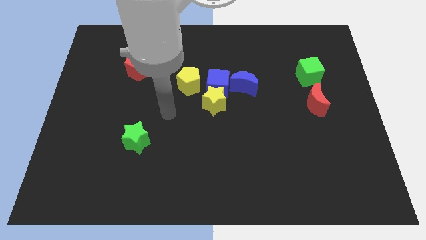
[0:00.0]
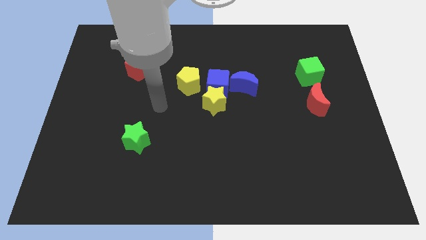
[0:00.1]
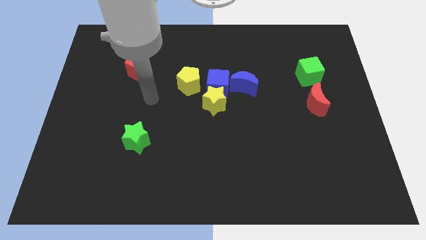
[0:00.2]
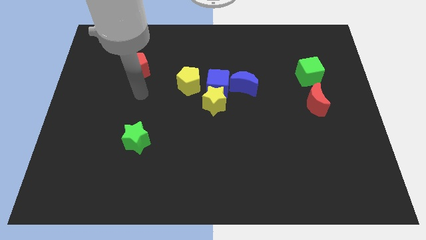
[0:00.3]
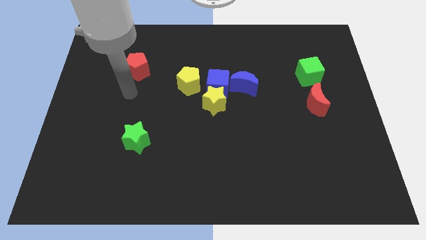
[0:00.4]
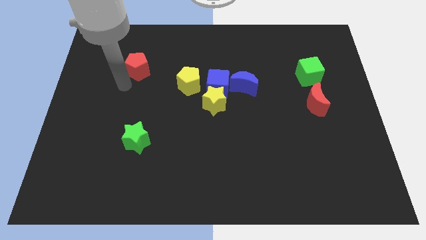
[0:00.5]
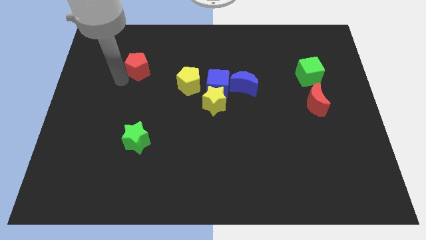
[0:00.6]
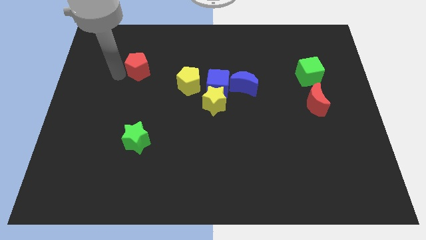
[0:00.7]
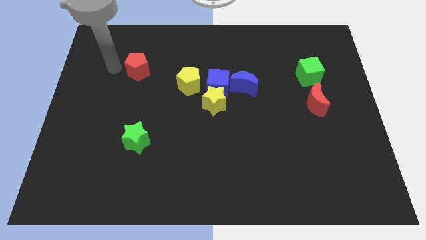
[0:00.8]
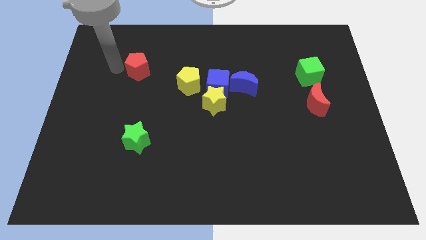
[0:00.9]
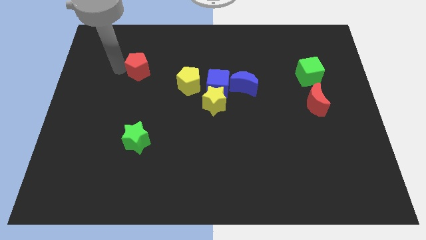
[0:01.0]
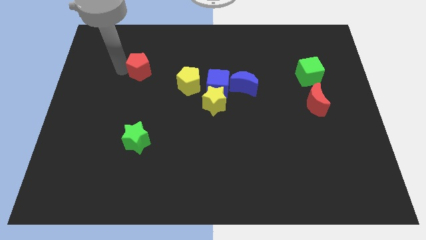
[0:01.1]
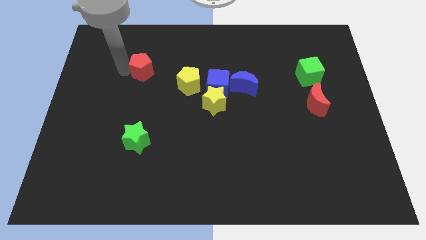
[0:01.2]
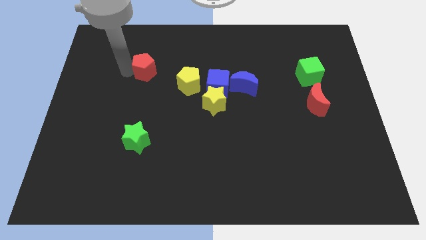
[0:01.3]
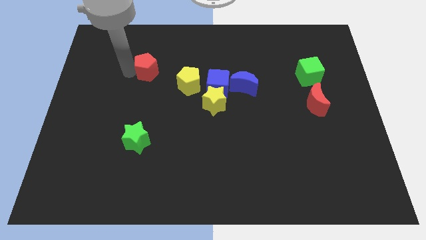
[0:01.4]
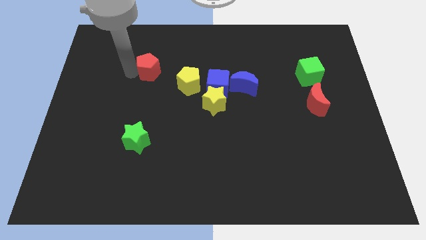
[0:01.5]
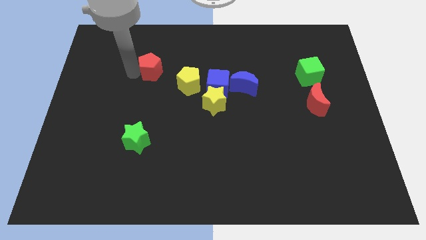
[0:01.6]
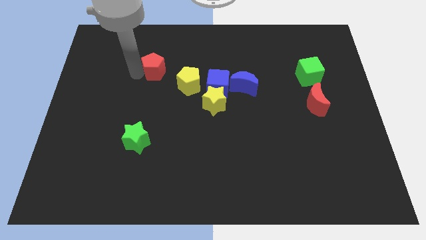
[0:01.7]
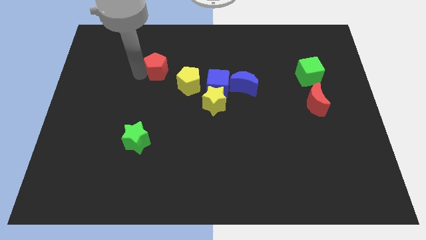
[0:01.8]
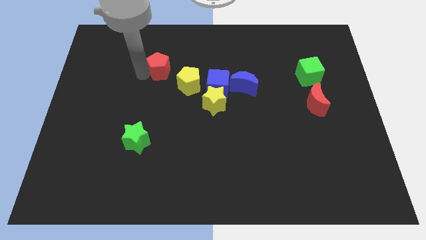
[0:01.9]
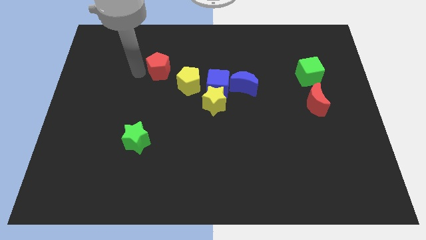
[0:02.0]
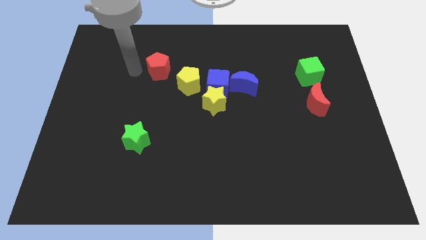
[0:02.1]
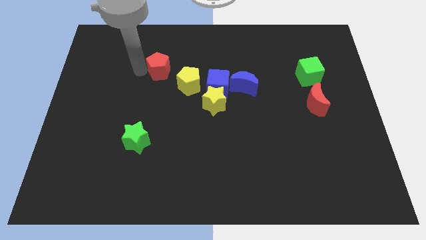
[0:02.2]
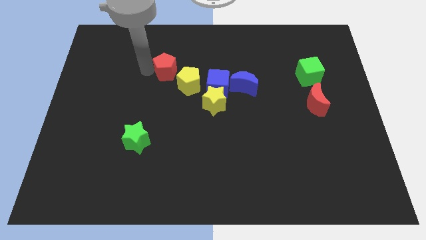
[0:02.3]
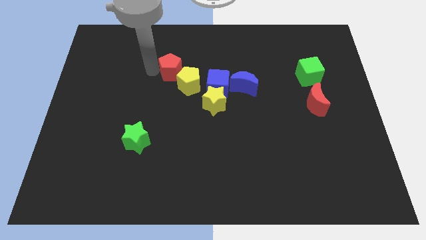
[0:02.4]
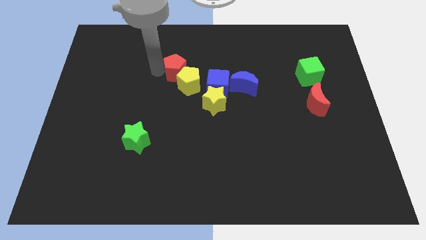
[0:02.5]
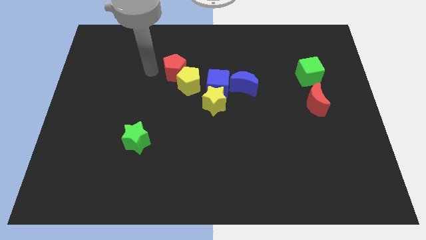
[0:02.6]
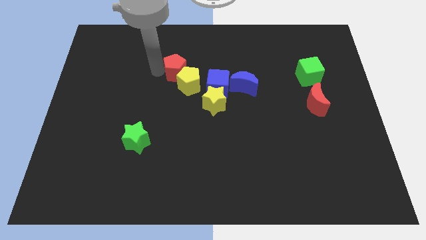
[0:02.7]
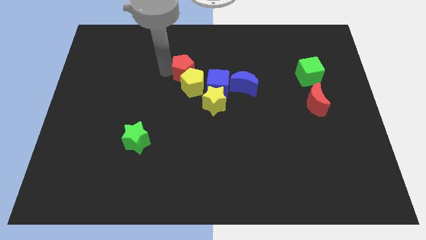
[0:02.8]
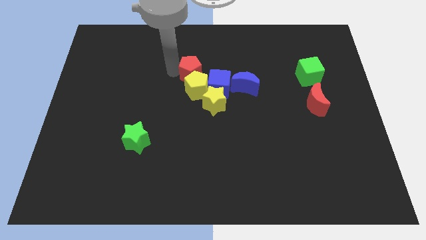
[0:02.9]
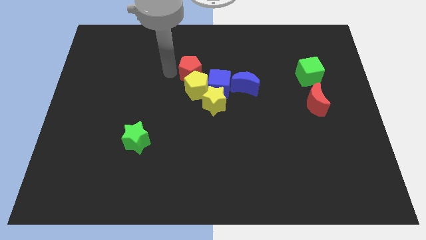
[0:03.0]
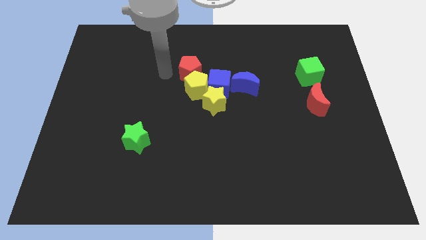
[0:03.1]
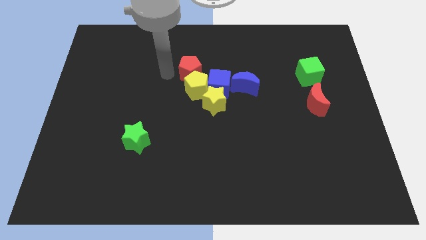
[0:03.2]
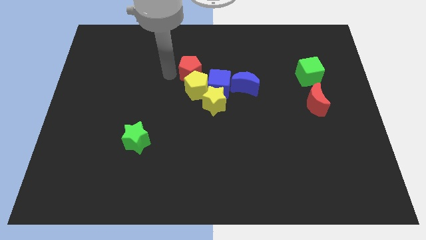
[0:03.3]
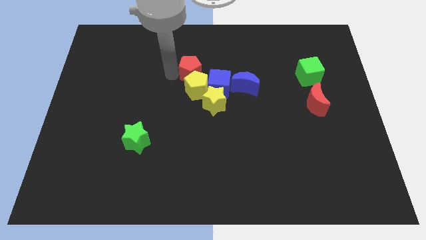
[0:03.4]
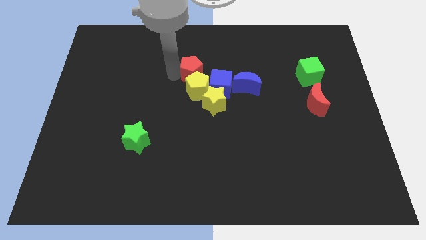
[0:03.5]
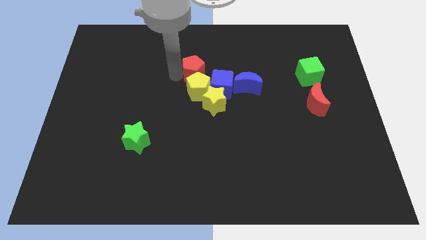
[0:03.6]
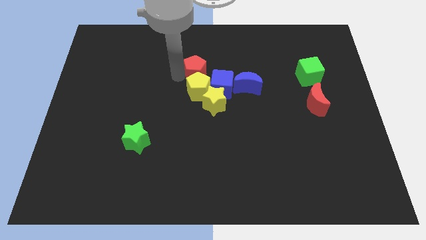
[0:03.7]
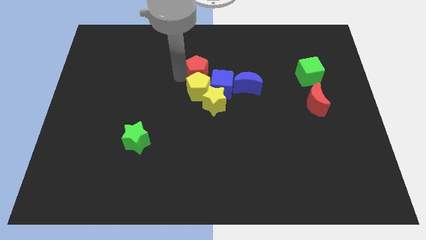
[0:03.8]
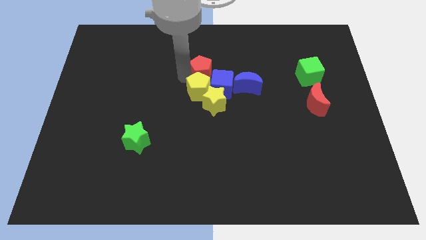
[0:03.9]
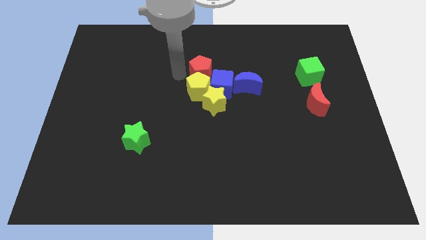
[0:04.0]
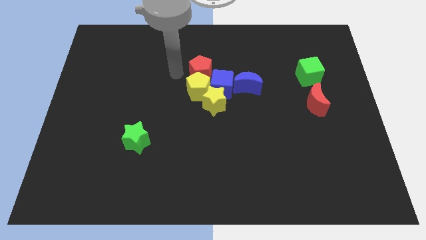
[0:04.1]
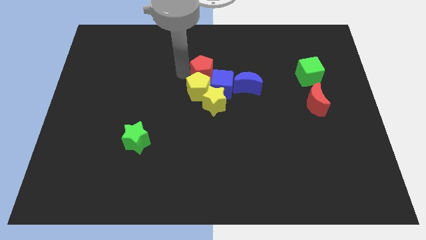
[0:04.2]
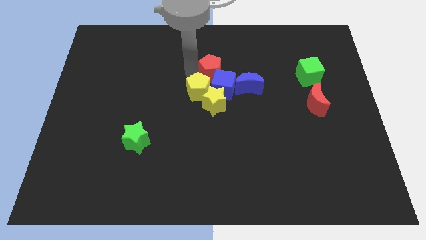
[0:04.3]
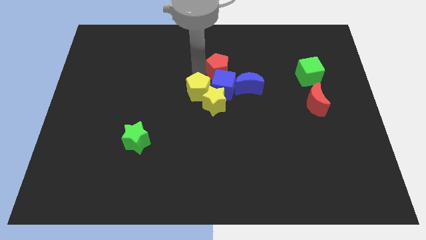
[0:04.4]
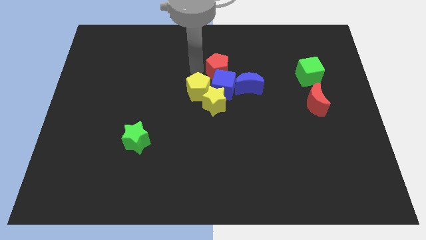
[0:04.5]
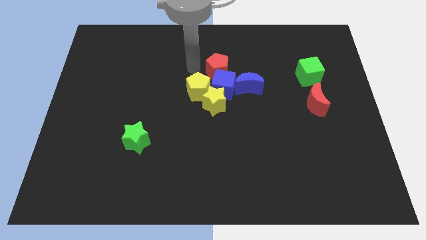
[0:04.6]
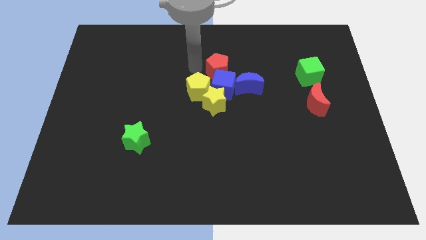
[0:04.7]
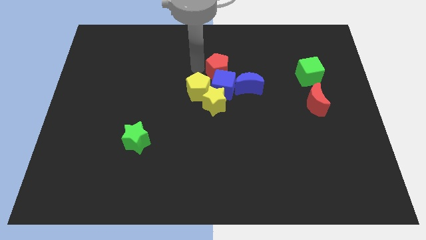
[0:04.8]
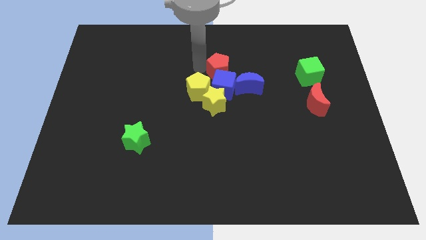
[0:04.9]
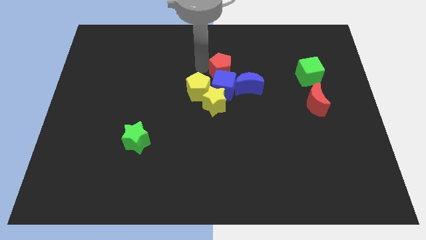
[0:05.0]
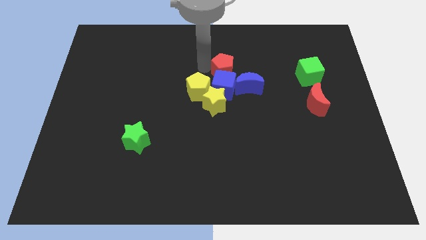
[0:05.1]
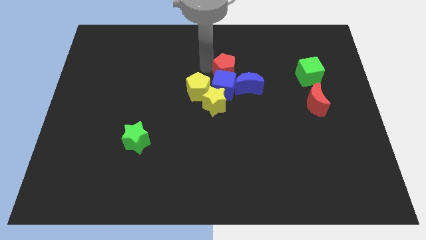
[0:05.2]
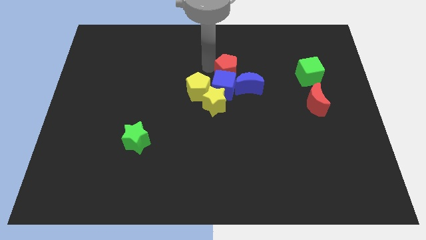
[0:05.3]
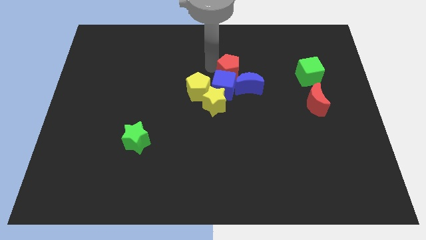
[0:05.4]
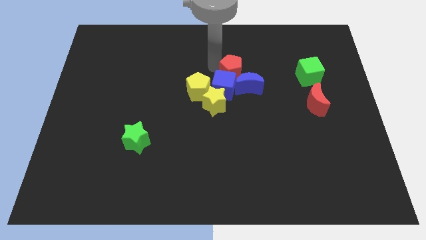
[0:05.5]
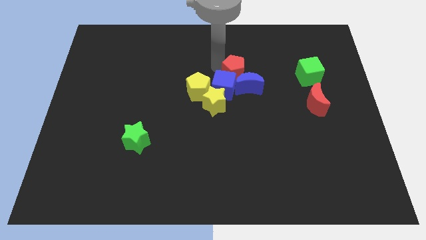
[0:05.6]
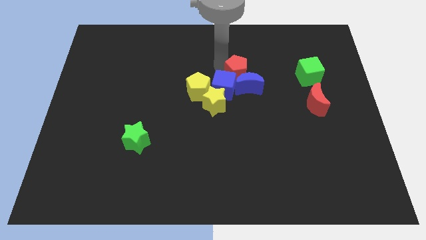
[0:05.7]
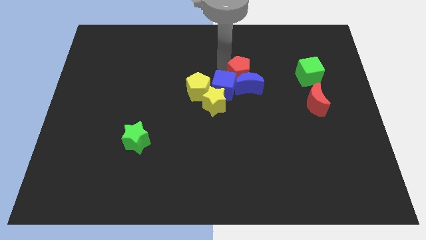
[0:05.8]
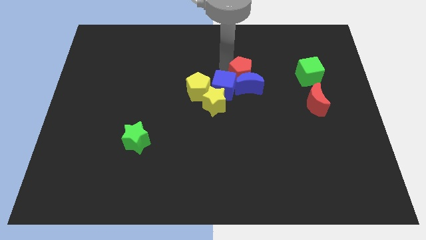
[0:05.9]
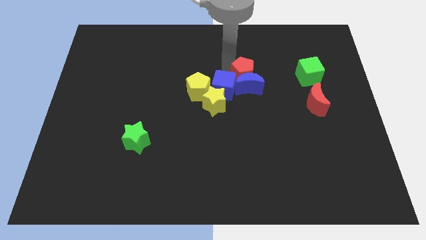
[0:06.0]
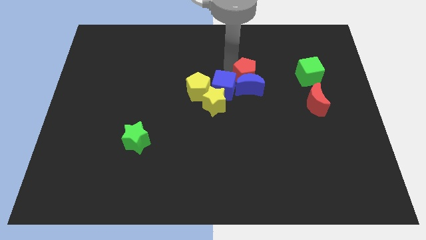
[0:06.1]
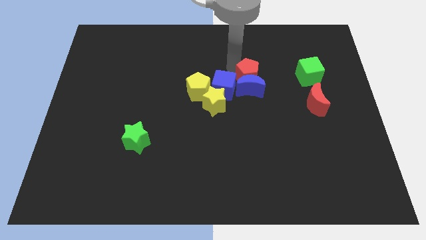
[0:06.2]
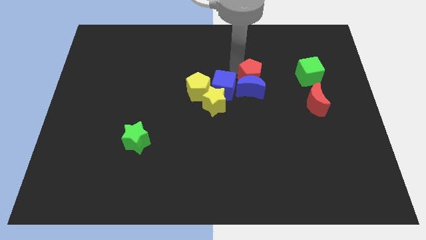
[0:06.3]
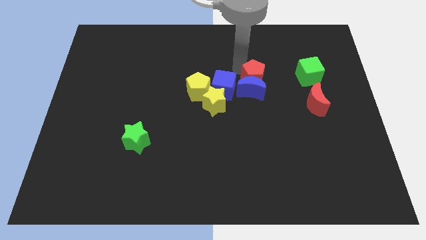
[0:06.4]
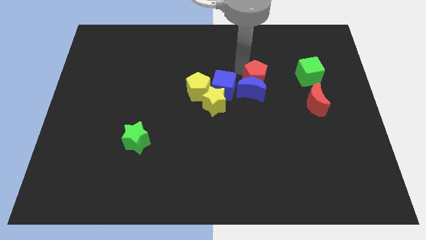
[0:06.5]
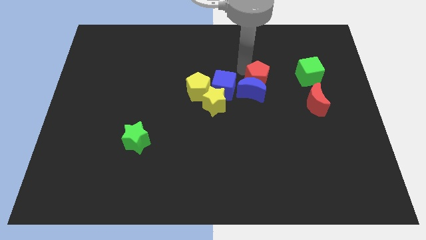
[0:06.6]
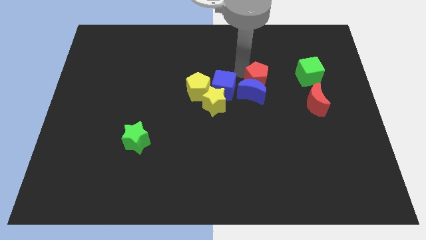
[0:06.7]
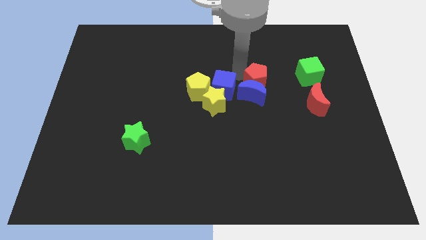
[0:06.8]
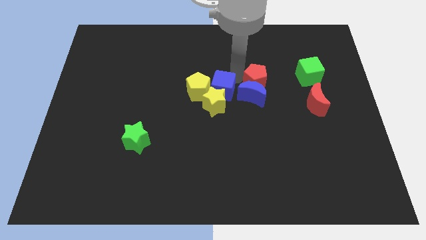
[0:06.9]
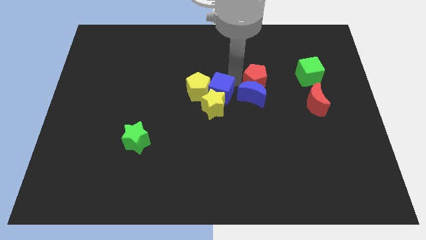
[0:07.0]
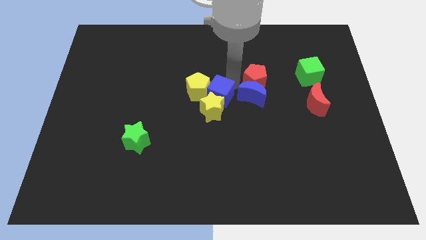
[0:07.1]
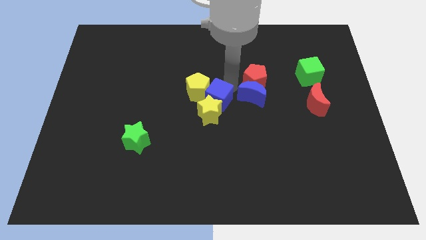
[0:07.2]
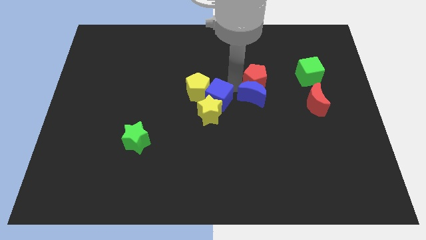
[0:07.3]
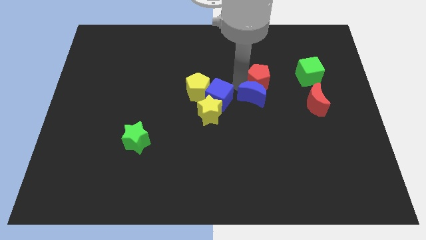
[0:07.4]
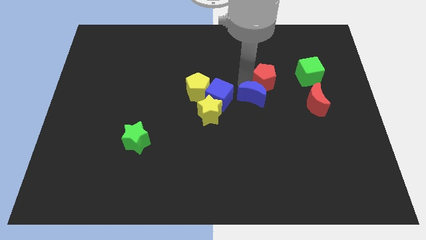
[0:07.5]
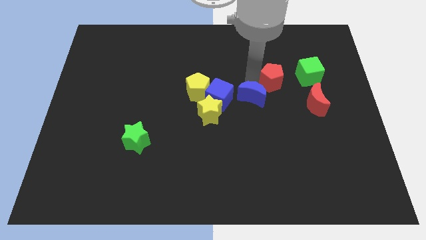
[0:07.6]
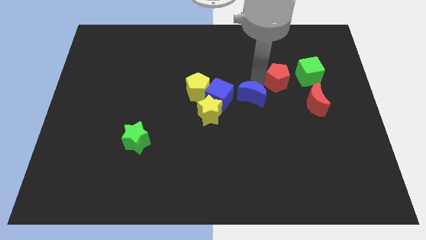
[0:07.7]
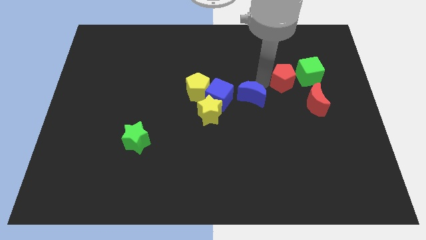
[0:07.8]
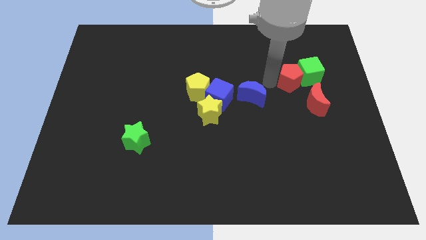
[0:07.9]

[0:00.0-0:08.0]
put the red pentagon towards the green cube
